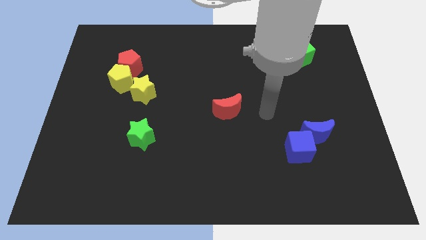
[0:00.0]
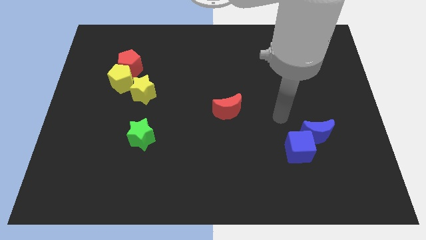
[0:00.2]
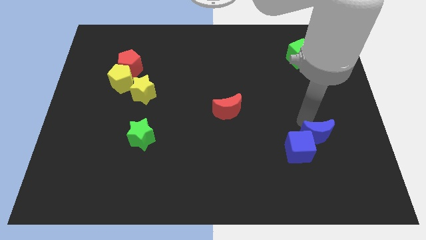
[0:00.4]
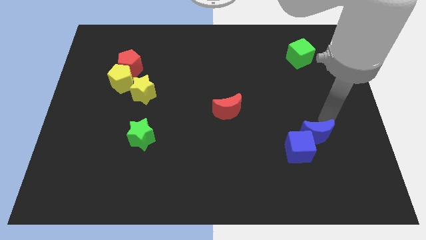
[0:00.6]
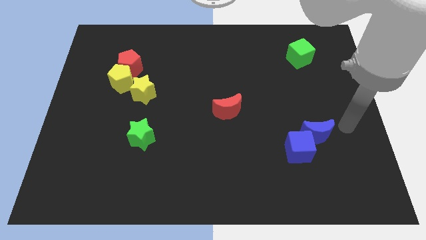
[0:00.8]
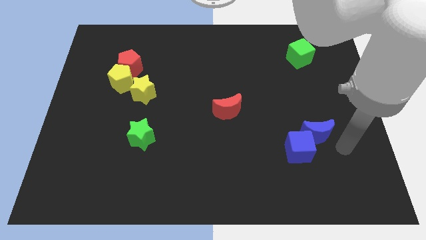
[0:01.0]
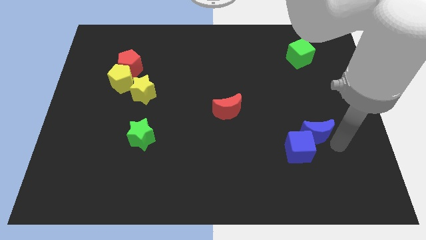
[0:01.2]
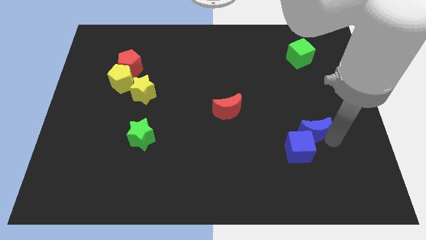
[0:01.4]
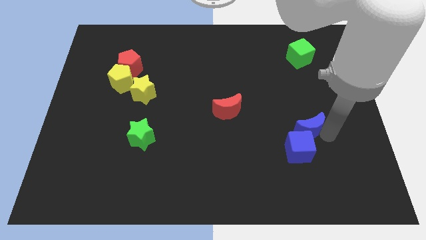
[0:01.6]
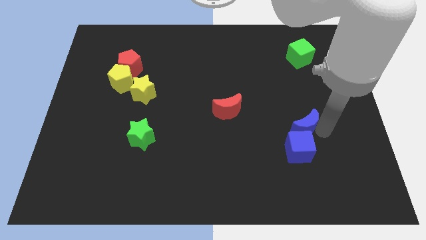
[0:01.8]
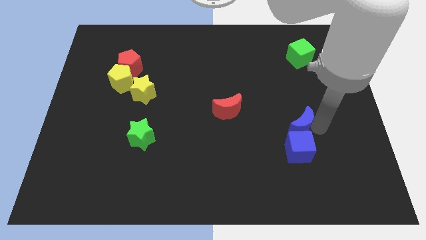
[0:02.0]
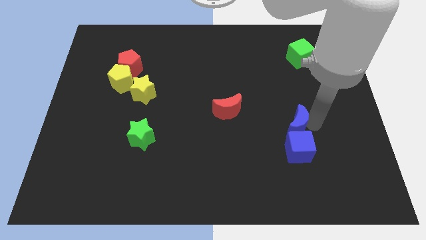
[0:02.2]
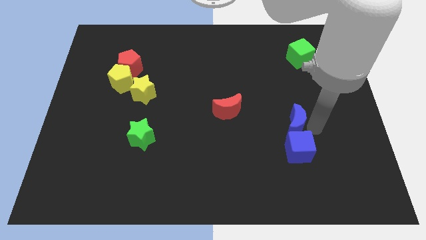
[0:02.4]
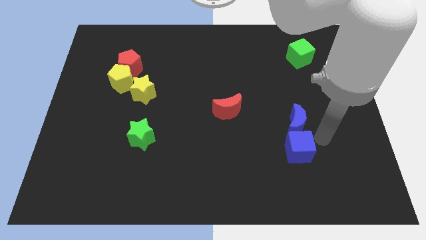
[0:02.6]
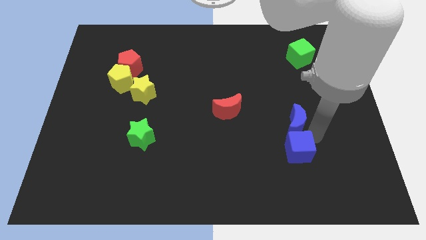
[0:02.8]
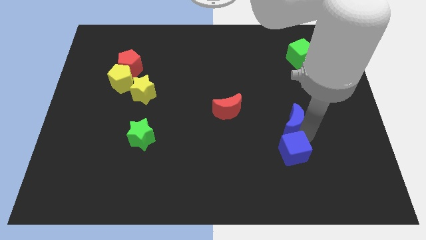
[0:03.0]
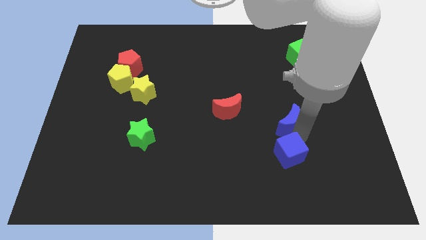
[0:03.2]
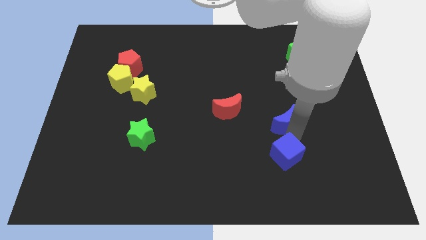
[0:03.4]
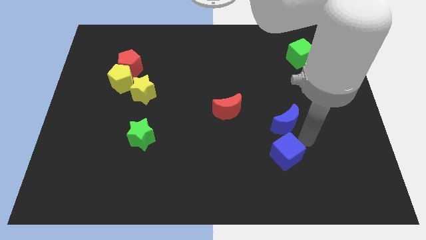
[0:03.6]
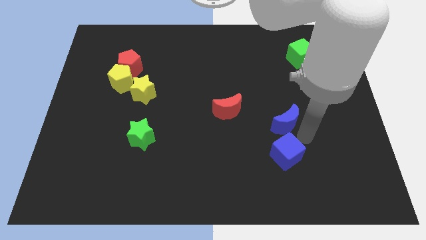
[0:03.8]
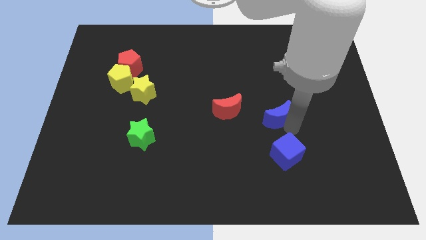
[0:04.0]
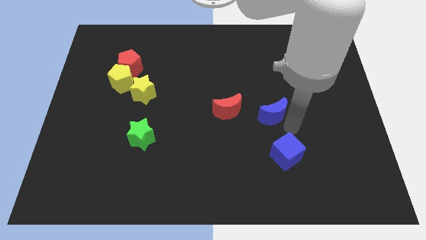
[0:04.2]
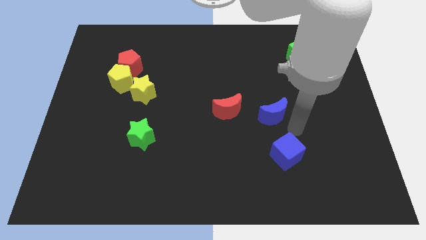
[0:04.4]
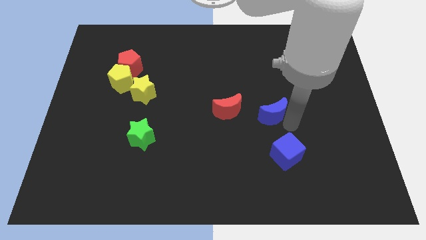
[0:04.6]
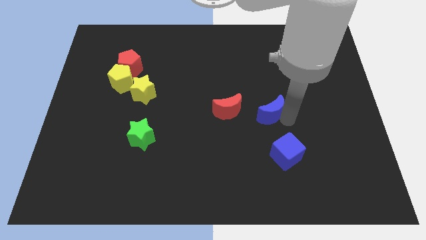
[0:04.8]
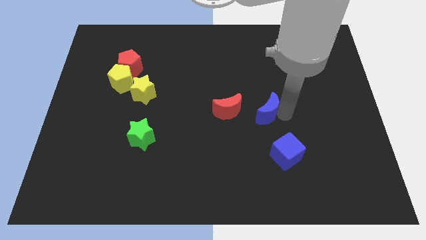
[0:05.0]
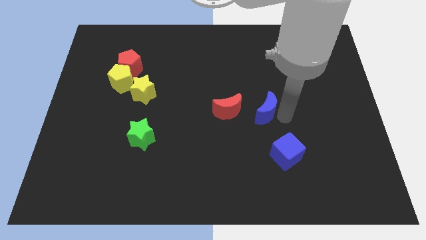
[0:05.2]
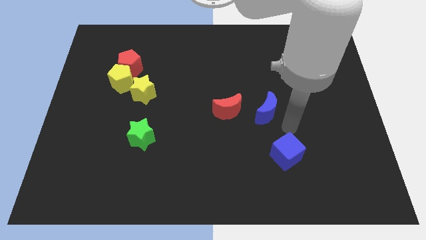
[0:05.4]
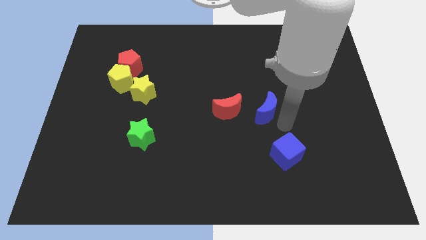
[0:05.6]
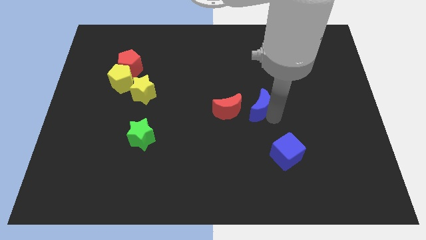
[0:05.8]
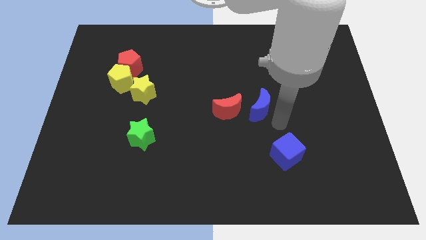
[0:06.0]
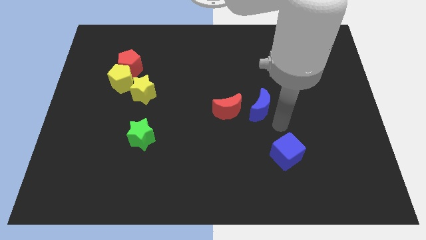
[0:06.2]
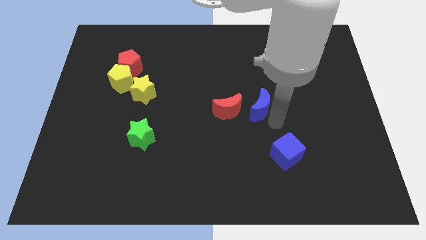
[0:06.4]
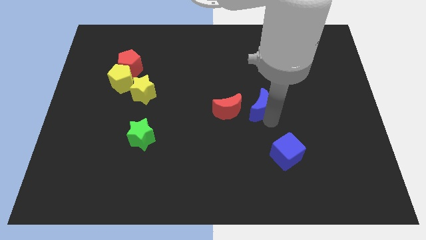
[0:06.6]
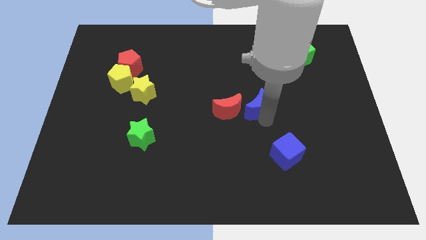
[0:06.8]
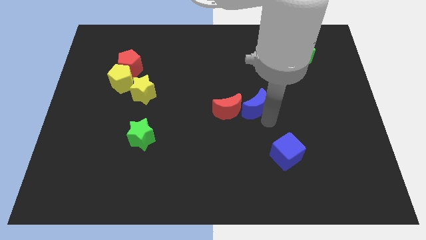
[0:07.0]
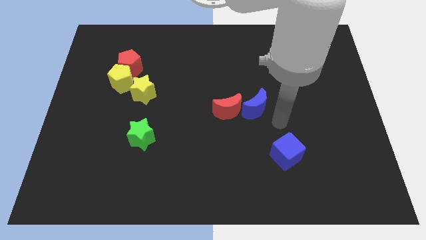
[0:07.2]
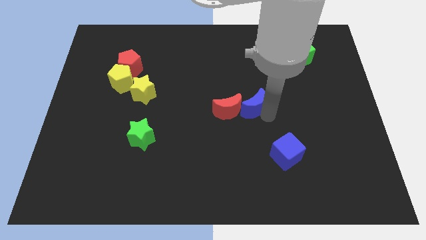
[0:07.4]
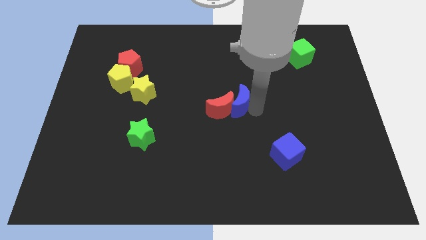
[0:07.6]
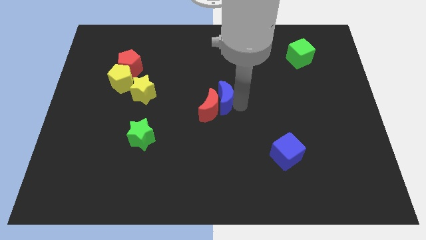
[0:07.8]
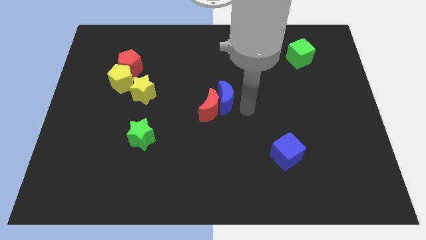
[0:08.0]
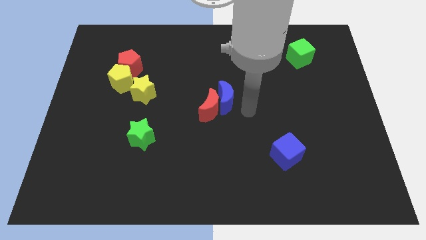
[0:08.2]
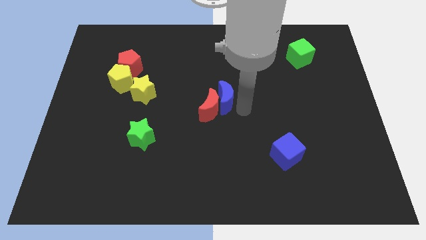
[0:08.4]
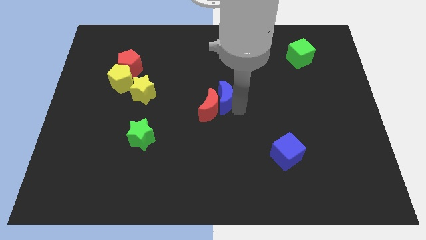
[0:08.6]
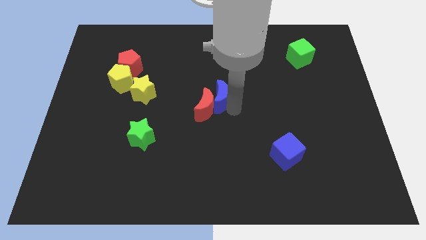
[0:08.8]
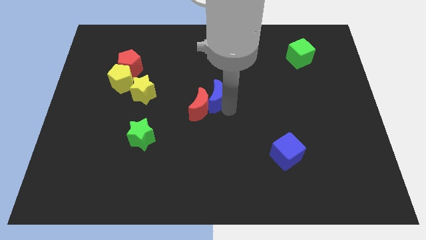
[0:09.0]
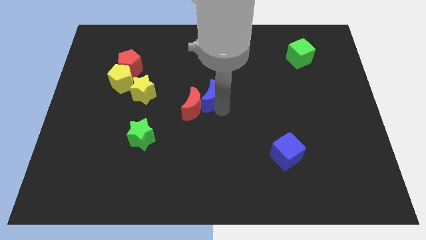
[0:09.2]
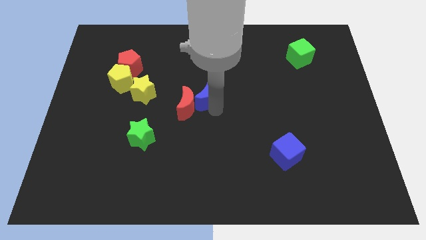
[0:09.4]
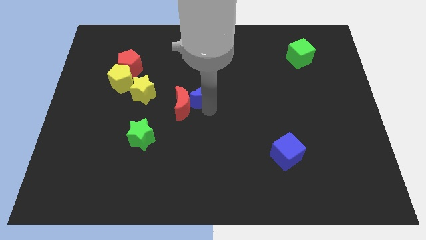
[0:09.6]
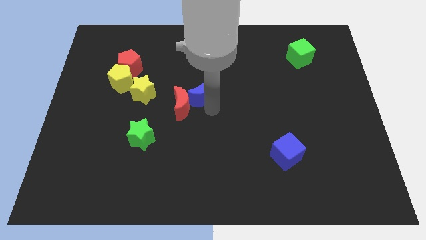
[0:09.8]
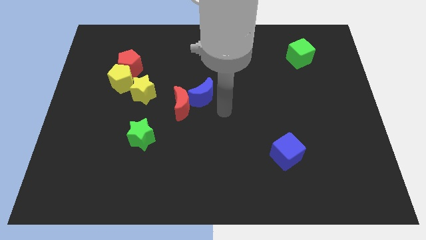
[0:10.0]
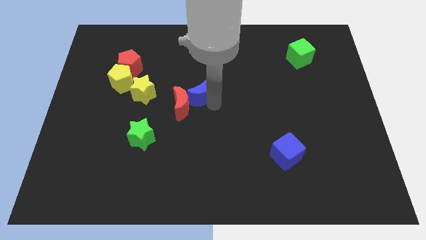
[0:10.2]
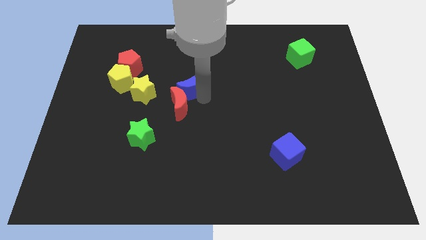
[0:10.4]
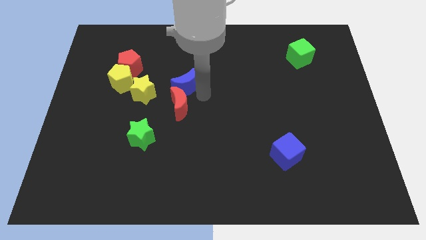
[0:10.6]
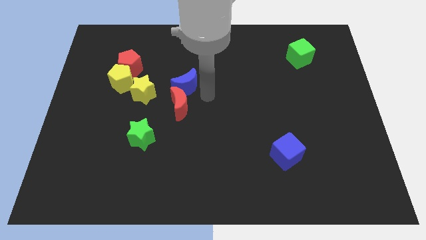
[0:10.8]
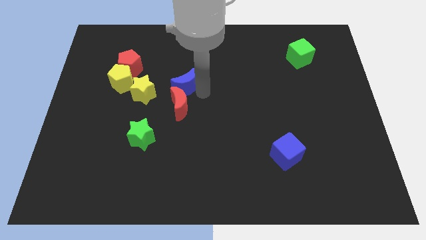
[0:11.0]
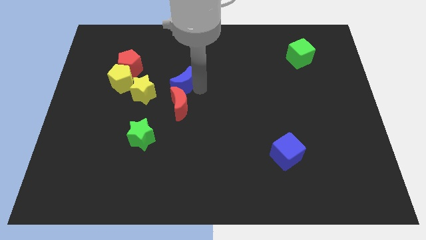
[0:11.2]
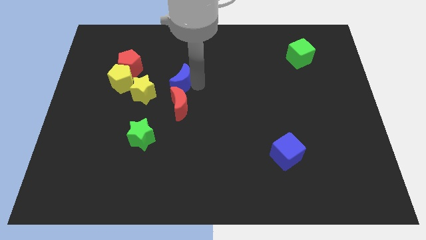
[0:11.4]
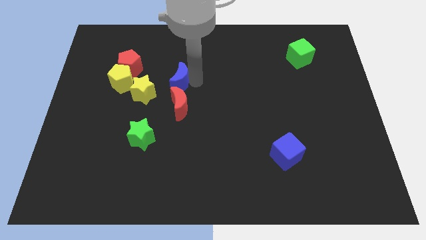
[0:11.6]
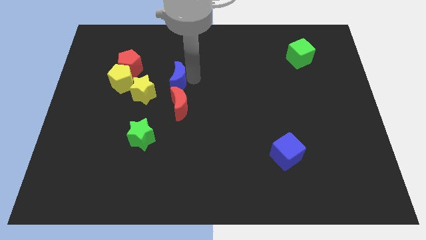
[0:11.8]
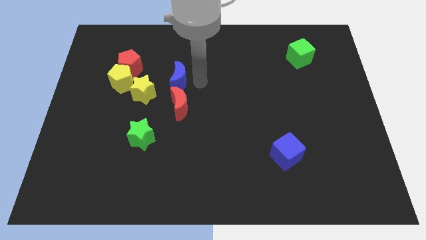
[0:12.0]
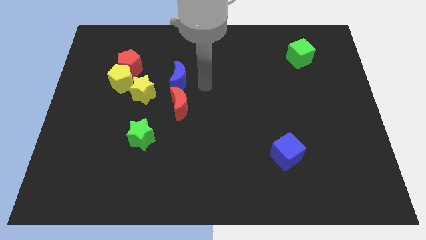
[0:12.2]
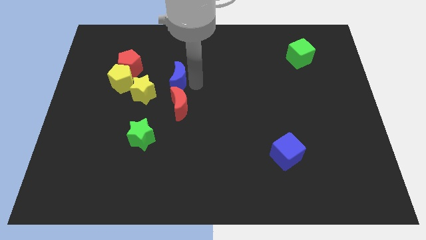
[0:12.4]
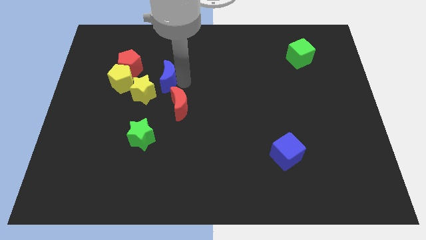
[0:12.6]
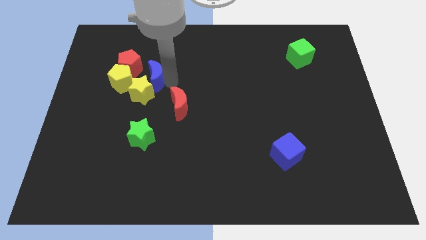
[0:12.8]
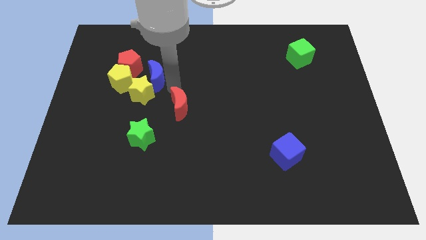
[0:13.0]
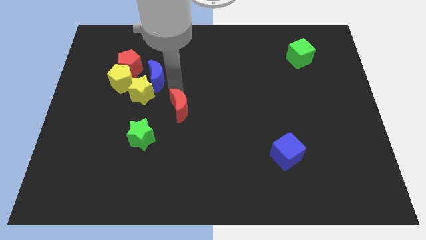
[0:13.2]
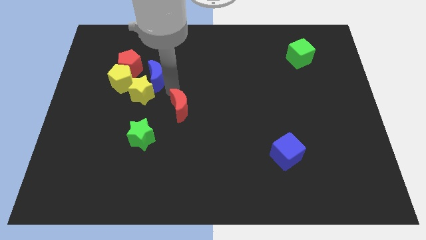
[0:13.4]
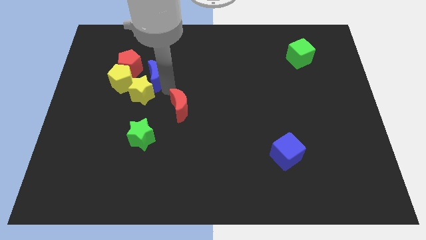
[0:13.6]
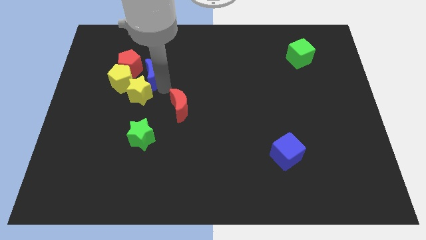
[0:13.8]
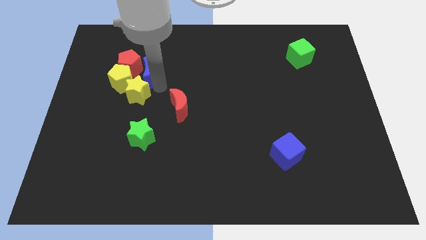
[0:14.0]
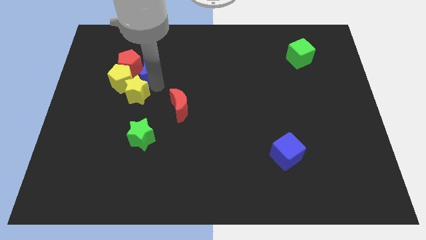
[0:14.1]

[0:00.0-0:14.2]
move the blue moon next to the red pentagon
